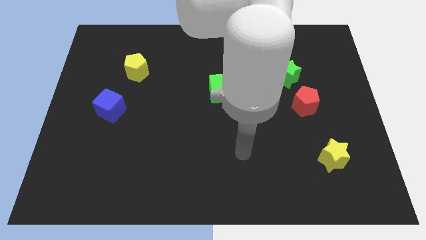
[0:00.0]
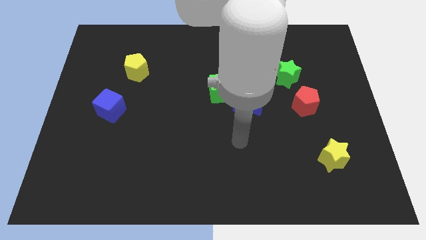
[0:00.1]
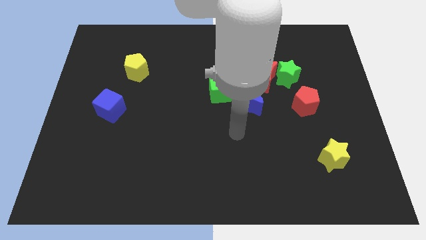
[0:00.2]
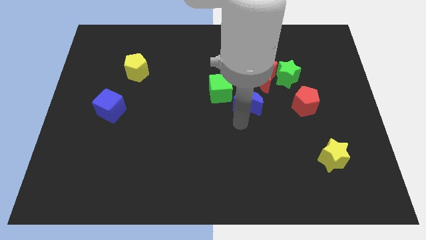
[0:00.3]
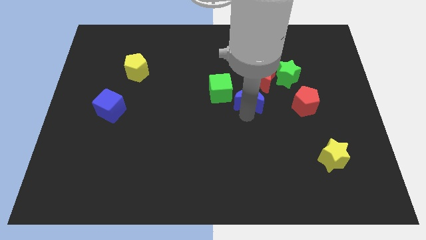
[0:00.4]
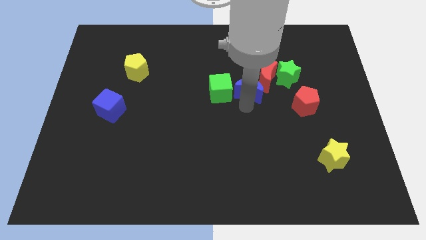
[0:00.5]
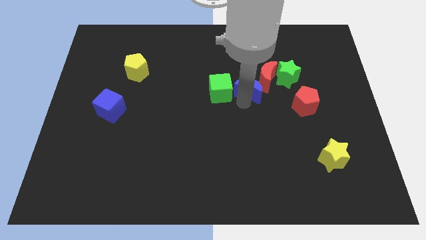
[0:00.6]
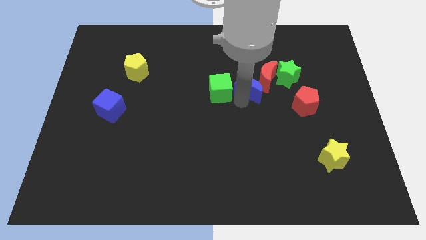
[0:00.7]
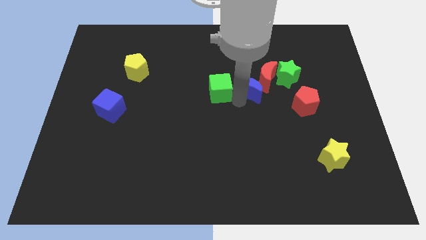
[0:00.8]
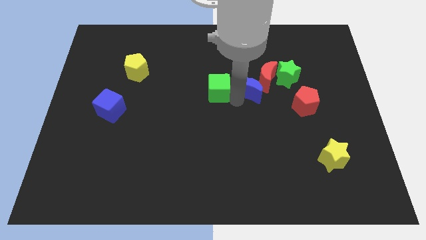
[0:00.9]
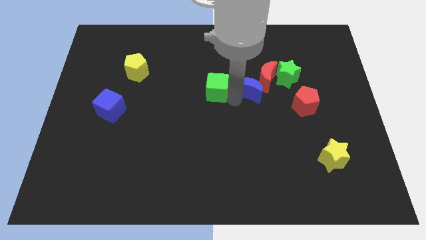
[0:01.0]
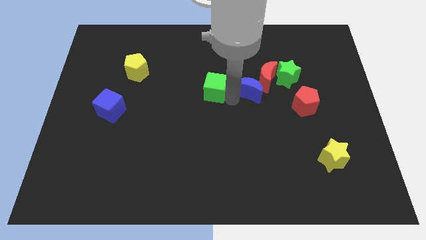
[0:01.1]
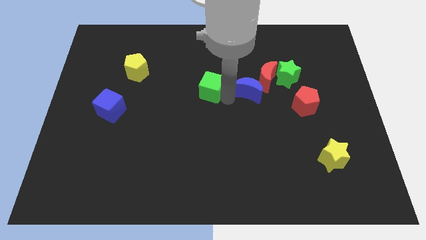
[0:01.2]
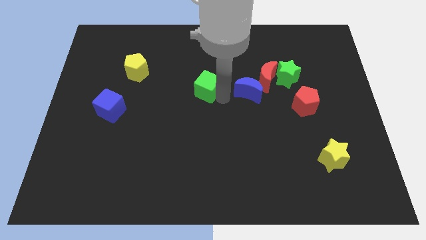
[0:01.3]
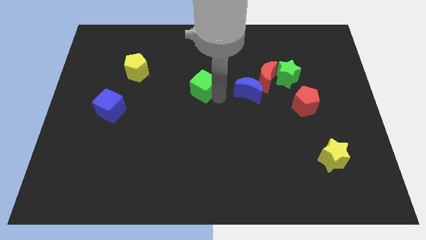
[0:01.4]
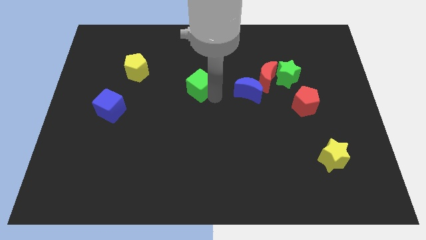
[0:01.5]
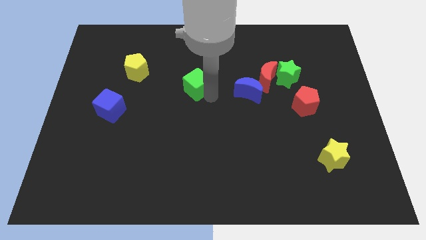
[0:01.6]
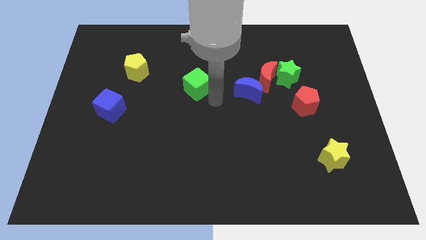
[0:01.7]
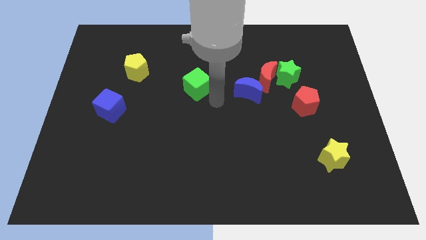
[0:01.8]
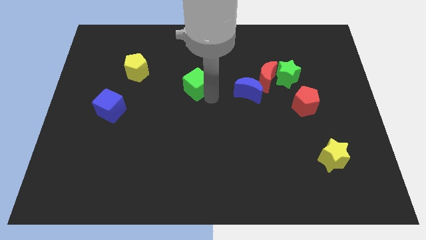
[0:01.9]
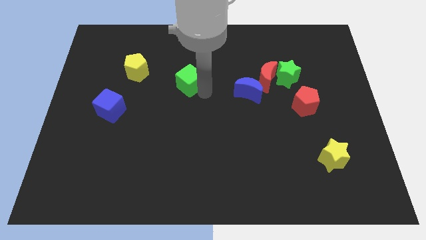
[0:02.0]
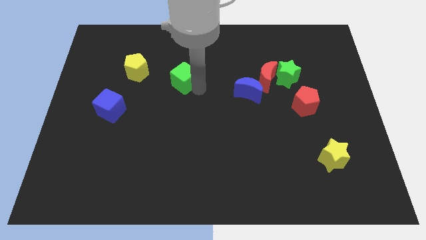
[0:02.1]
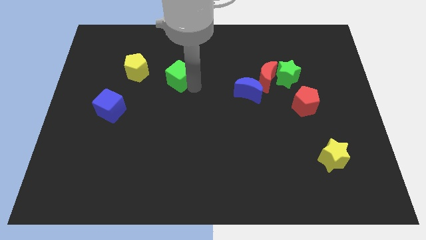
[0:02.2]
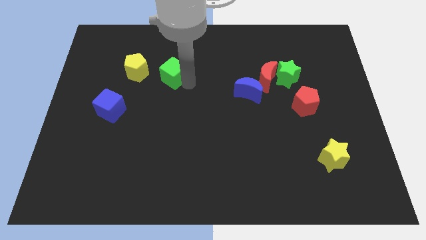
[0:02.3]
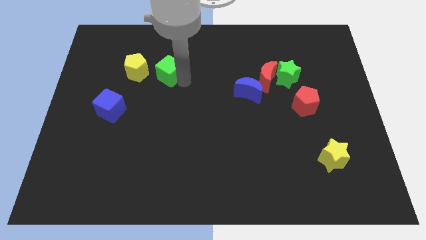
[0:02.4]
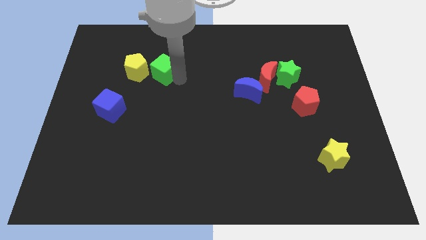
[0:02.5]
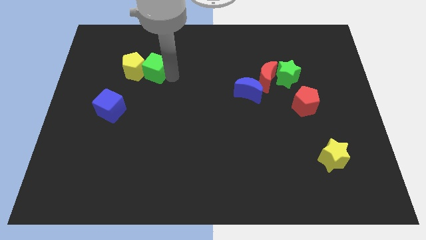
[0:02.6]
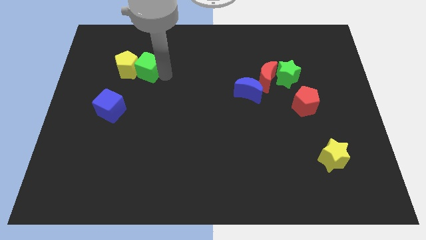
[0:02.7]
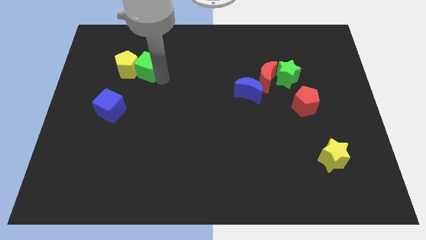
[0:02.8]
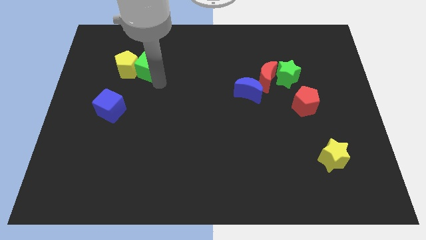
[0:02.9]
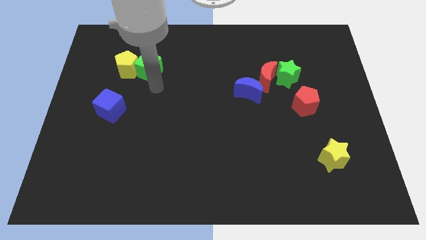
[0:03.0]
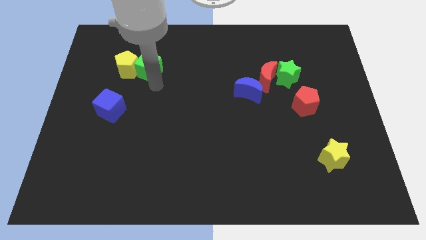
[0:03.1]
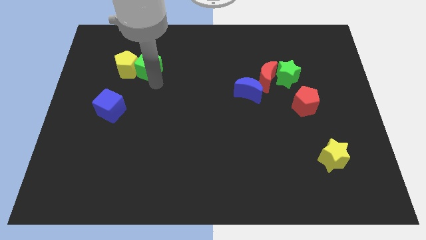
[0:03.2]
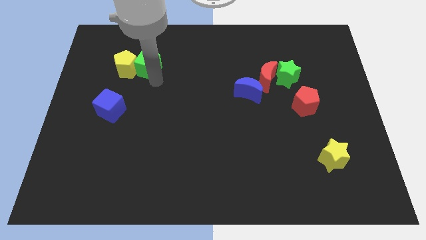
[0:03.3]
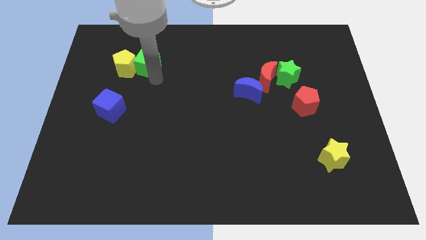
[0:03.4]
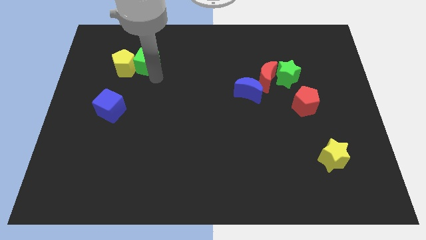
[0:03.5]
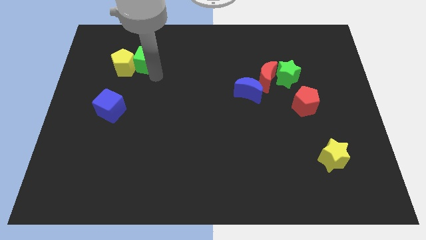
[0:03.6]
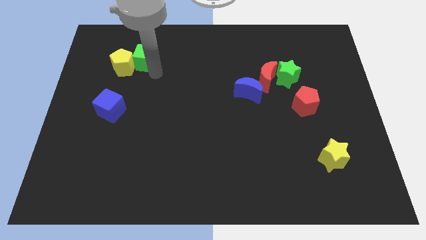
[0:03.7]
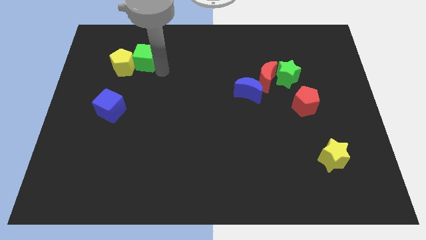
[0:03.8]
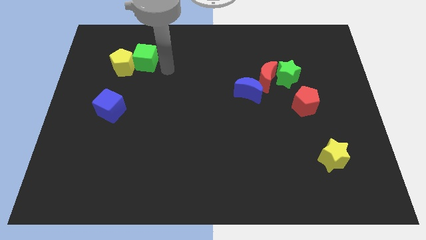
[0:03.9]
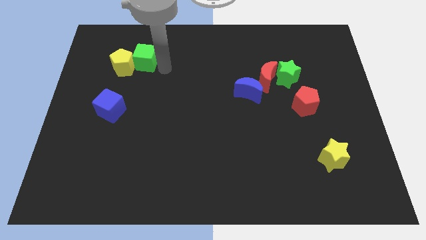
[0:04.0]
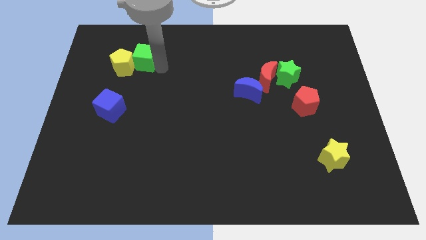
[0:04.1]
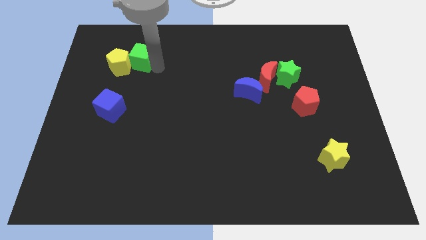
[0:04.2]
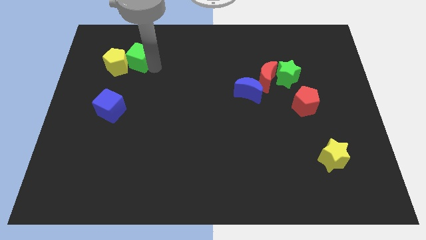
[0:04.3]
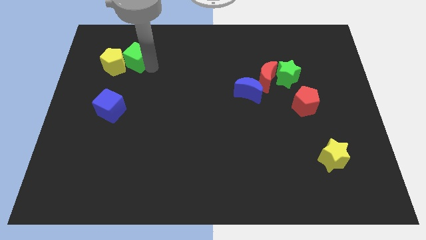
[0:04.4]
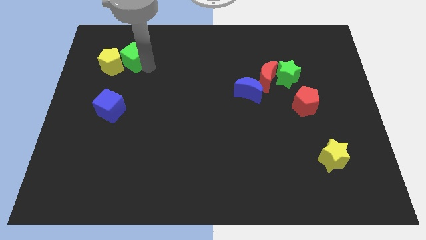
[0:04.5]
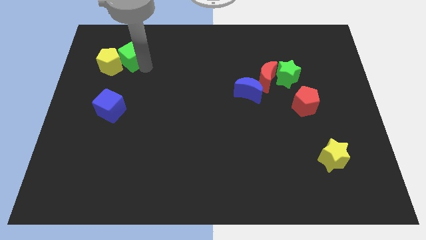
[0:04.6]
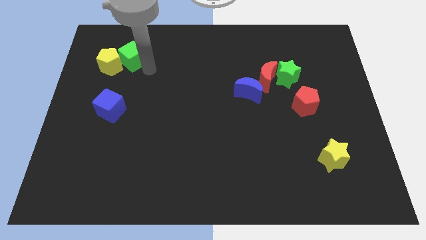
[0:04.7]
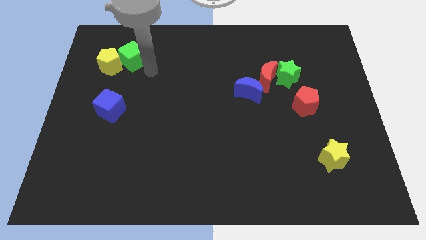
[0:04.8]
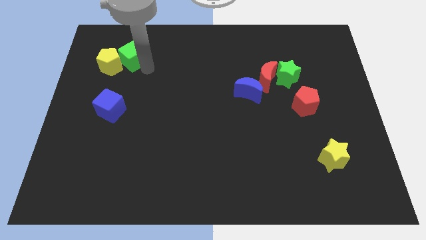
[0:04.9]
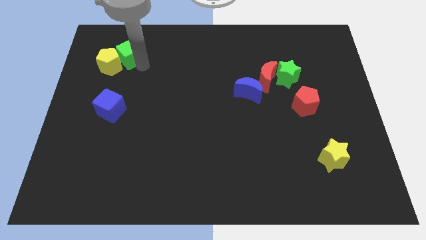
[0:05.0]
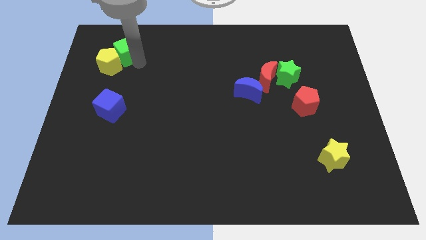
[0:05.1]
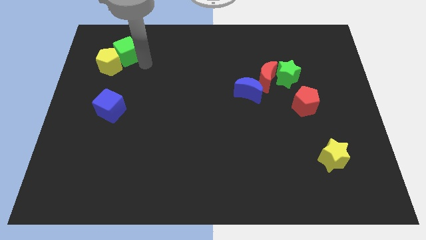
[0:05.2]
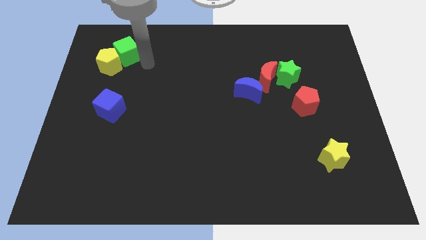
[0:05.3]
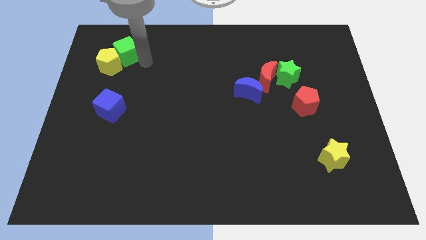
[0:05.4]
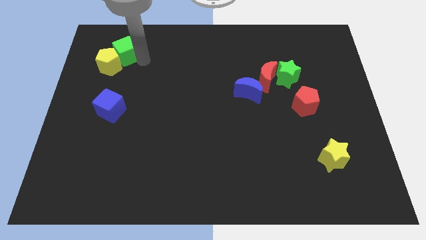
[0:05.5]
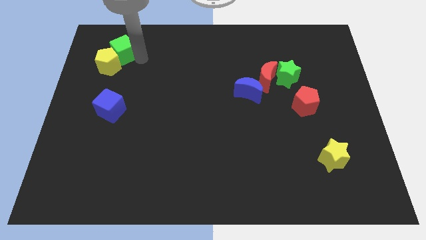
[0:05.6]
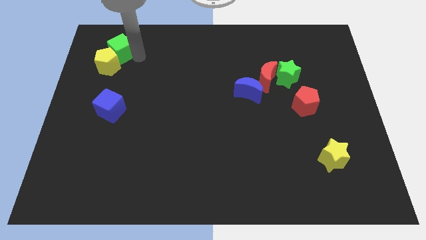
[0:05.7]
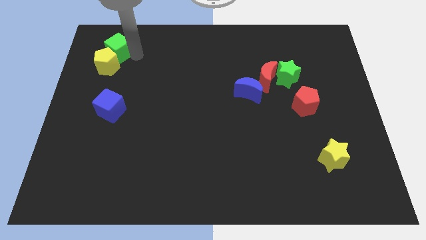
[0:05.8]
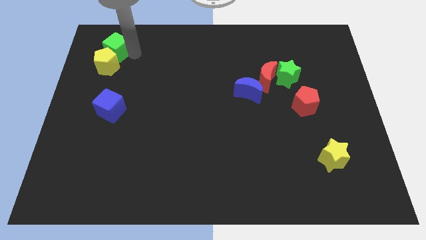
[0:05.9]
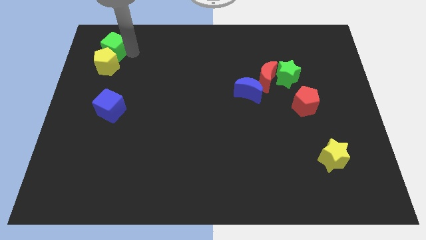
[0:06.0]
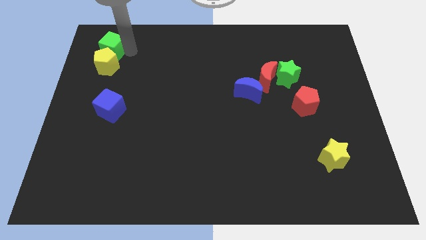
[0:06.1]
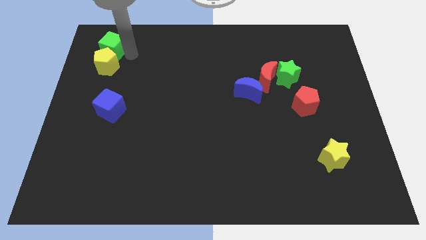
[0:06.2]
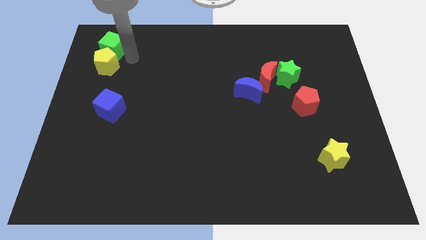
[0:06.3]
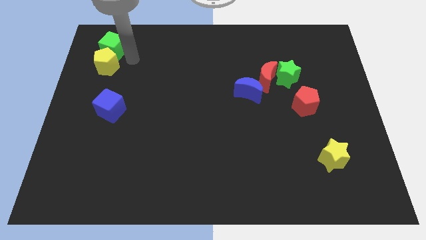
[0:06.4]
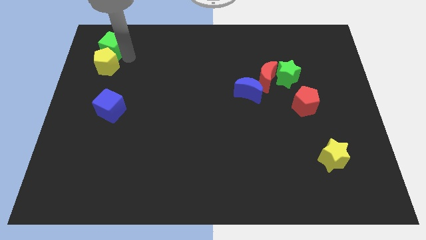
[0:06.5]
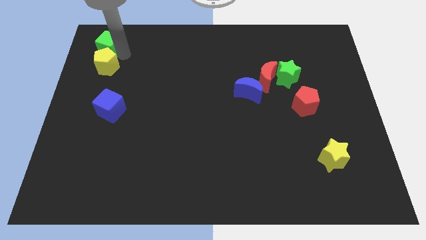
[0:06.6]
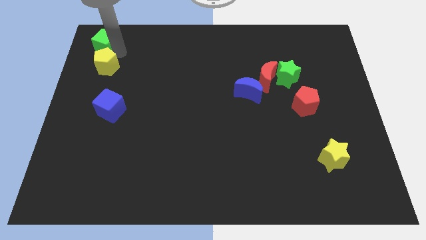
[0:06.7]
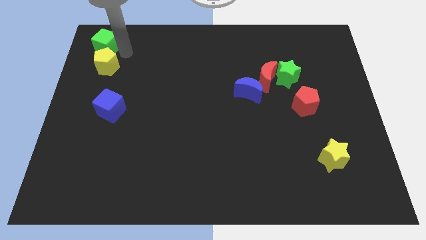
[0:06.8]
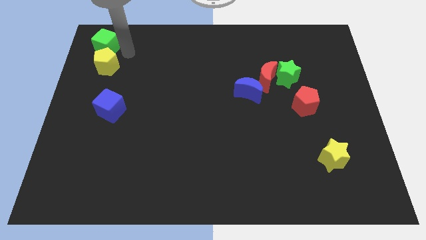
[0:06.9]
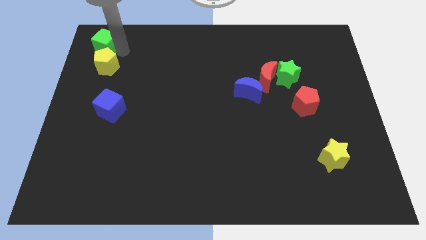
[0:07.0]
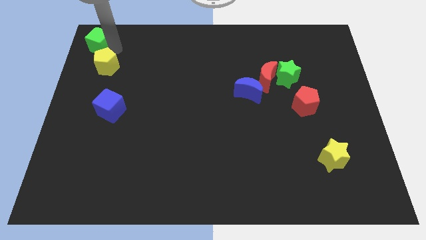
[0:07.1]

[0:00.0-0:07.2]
push the green cube to the upper left corner
